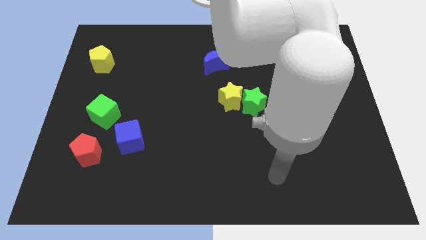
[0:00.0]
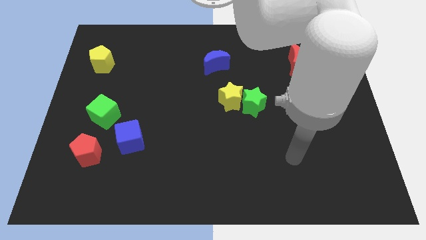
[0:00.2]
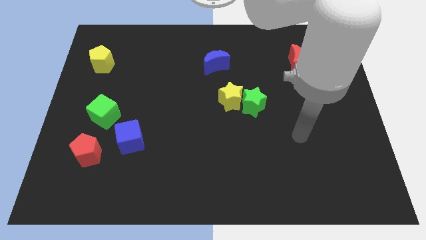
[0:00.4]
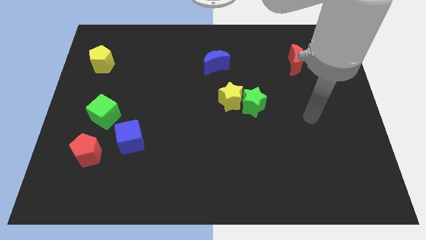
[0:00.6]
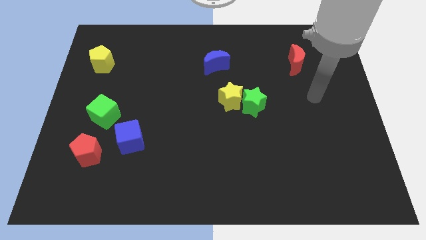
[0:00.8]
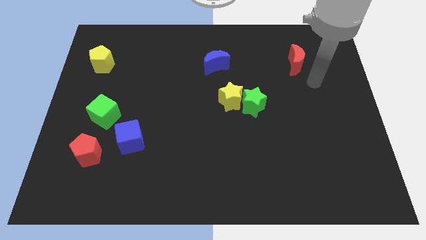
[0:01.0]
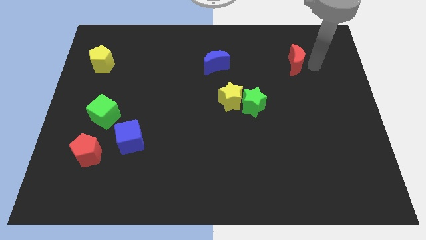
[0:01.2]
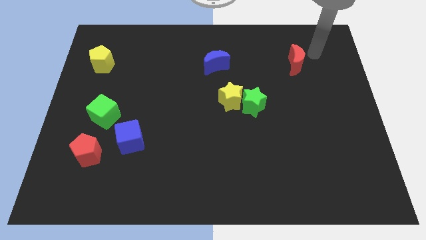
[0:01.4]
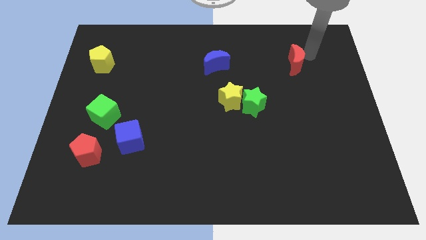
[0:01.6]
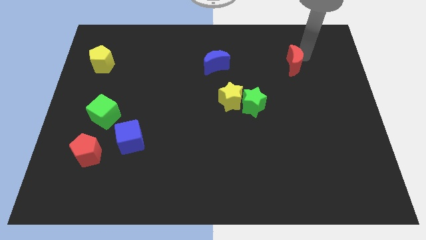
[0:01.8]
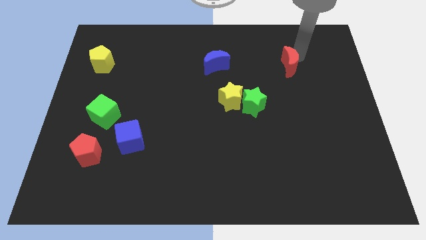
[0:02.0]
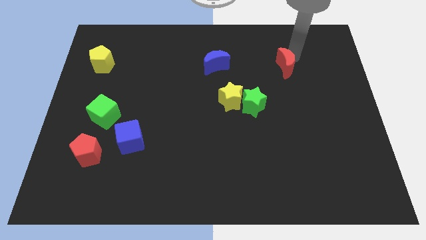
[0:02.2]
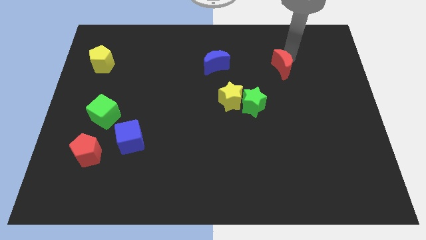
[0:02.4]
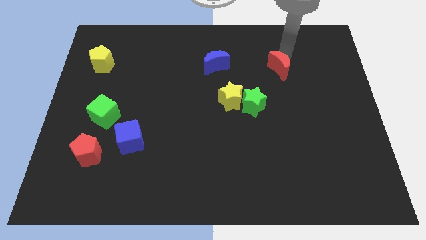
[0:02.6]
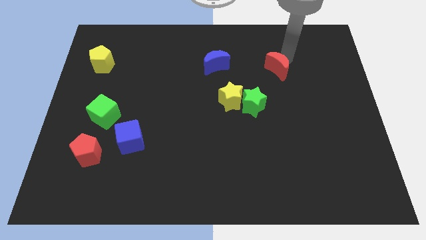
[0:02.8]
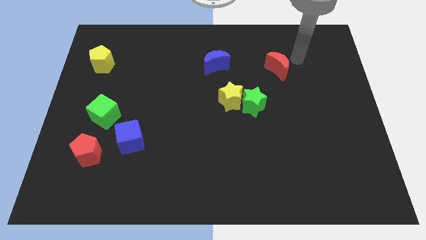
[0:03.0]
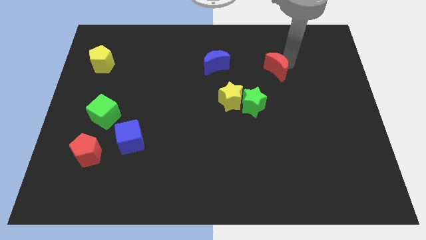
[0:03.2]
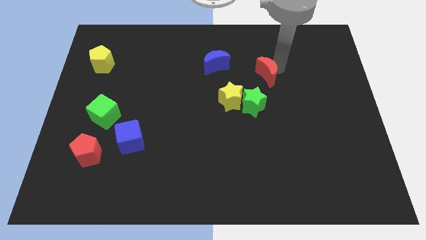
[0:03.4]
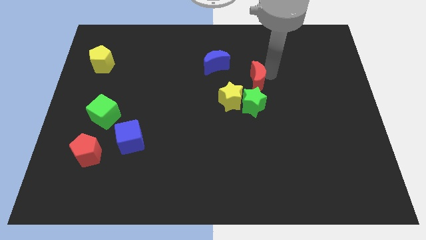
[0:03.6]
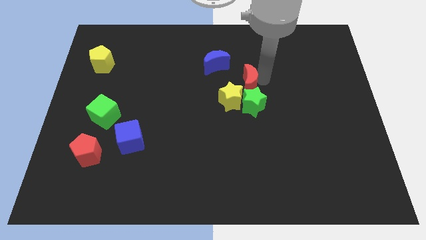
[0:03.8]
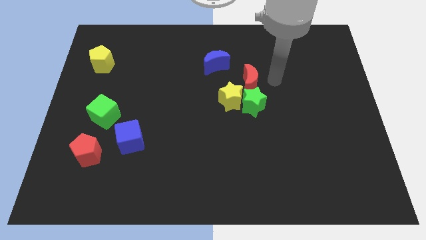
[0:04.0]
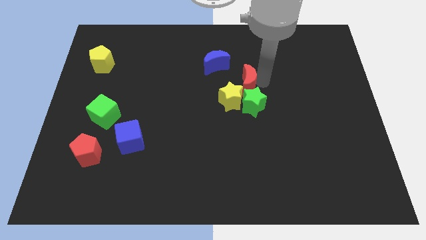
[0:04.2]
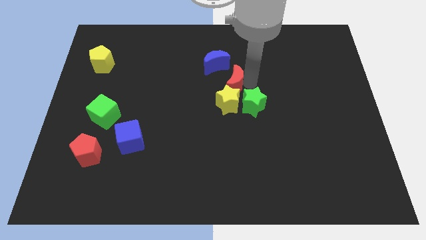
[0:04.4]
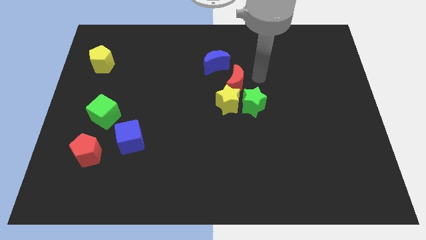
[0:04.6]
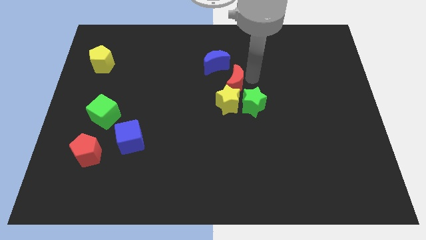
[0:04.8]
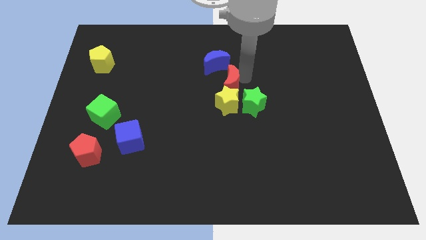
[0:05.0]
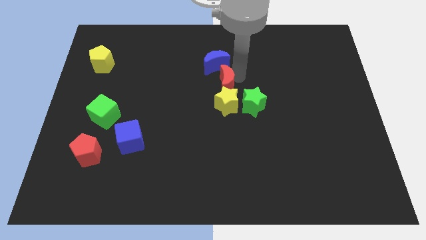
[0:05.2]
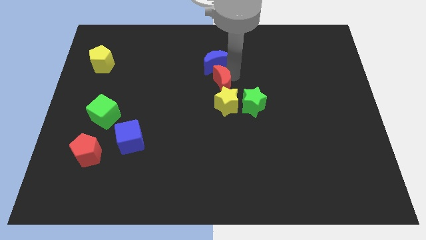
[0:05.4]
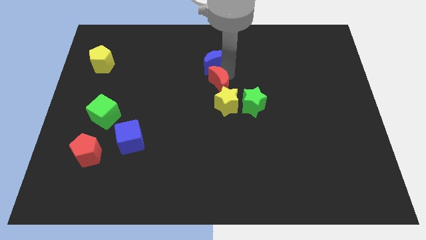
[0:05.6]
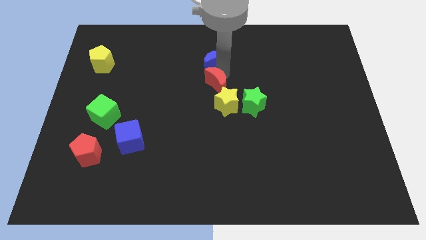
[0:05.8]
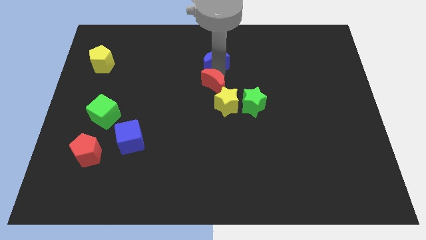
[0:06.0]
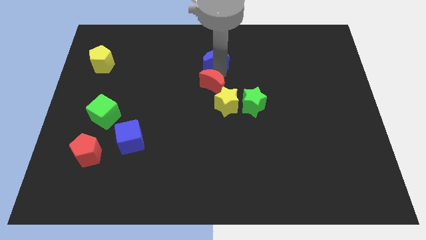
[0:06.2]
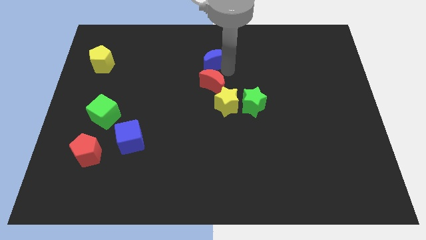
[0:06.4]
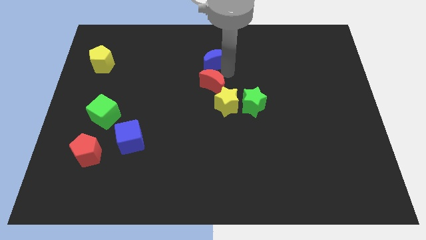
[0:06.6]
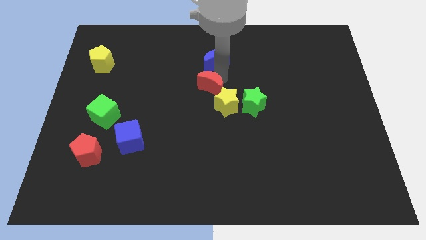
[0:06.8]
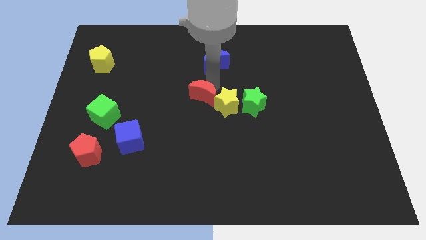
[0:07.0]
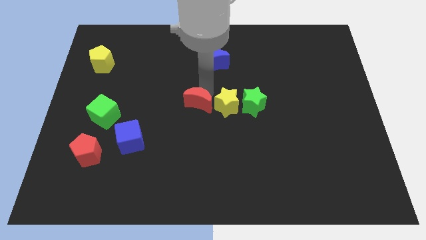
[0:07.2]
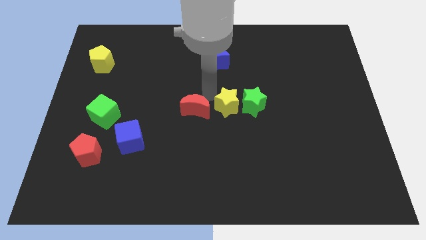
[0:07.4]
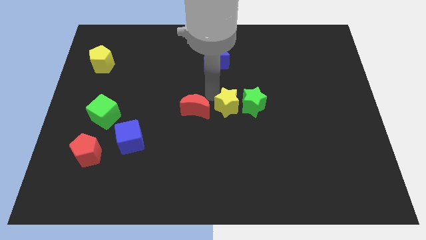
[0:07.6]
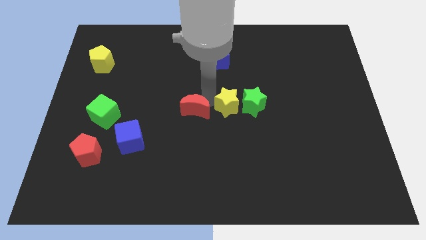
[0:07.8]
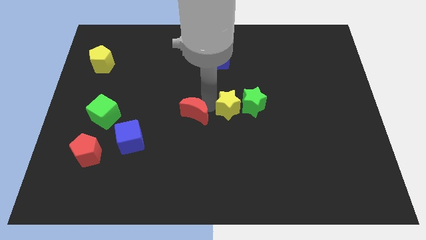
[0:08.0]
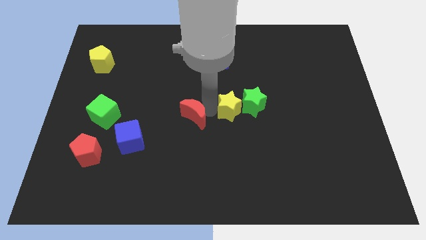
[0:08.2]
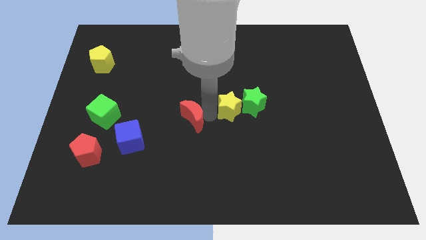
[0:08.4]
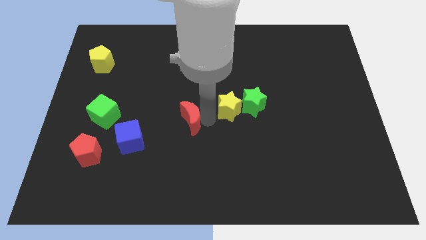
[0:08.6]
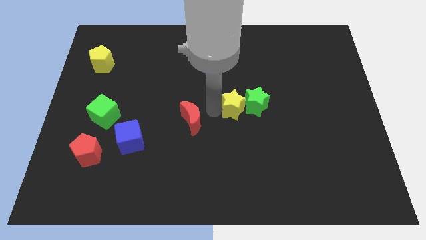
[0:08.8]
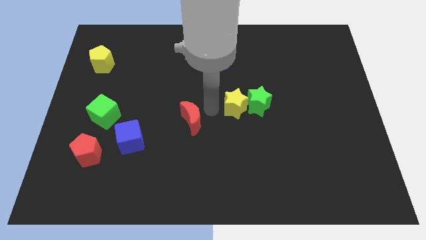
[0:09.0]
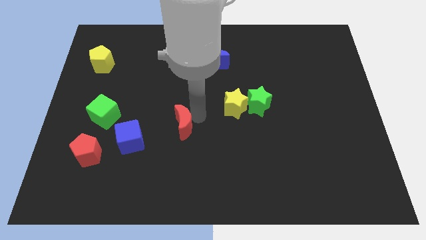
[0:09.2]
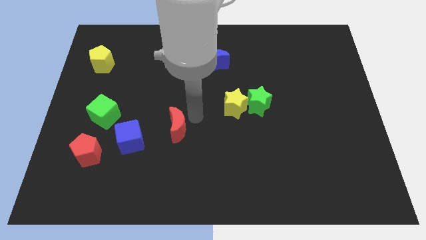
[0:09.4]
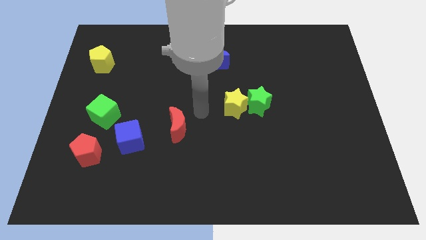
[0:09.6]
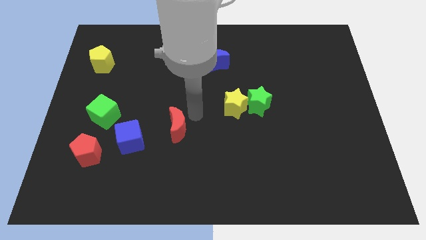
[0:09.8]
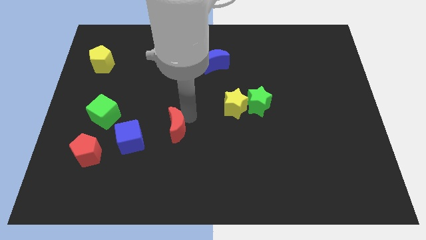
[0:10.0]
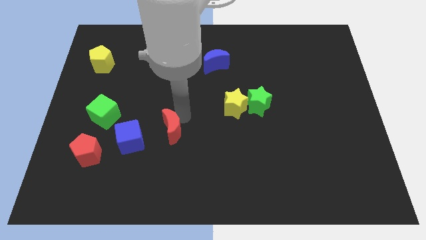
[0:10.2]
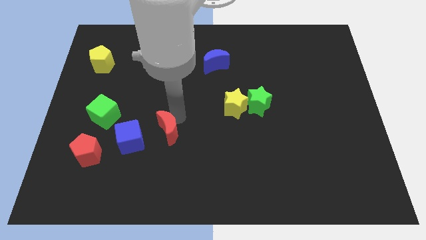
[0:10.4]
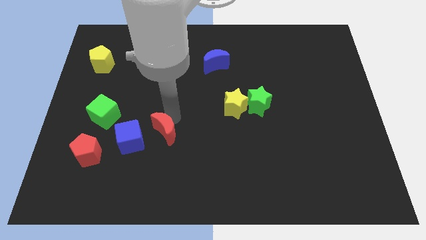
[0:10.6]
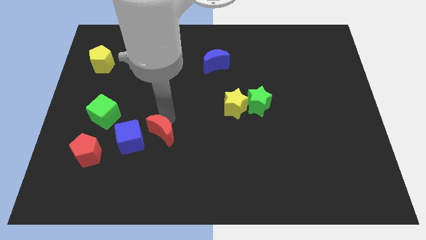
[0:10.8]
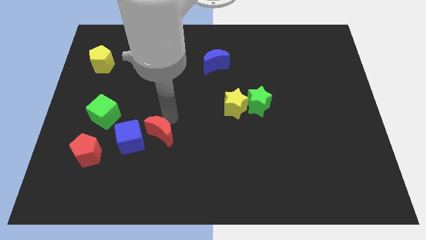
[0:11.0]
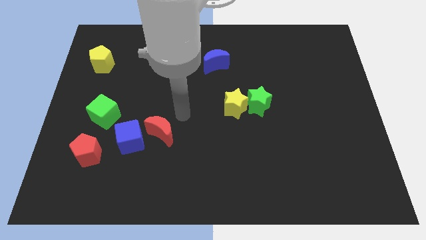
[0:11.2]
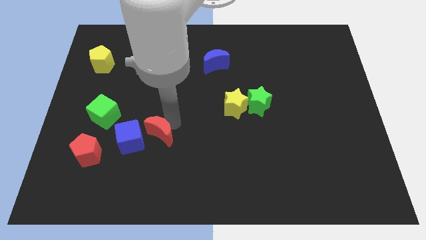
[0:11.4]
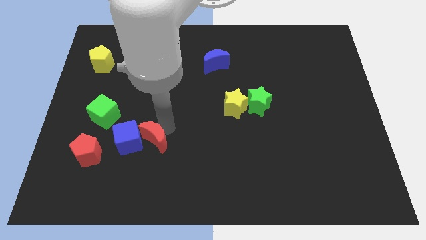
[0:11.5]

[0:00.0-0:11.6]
push the red moon to the right side of the red pentagon

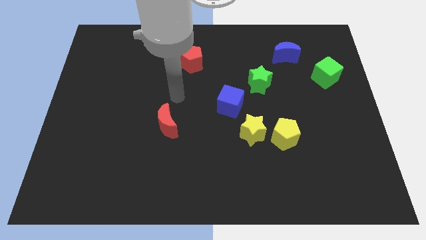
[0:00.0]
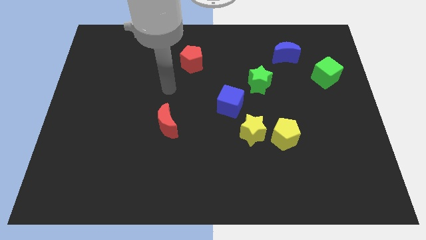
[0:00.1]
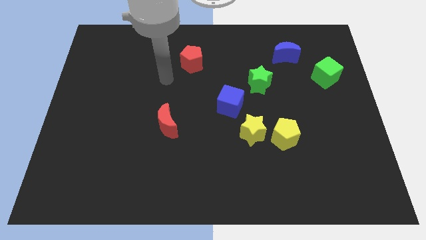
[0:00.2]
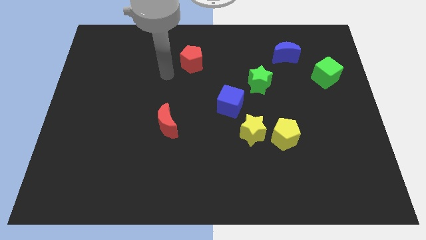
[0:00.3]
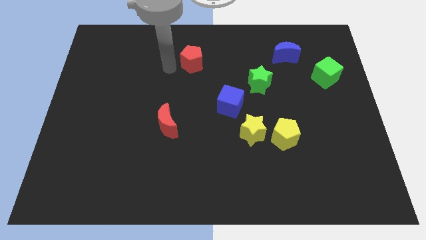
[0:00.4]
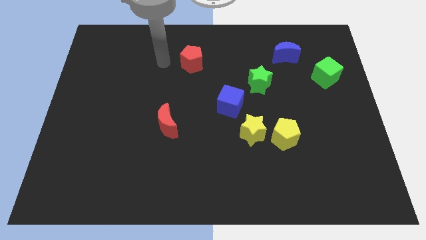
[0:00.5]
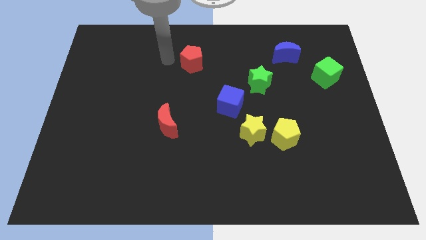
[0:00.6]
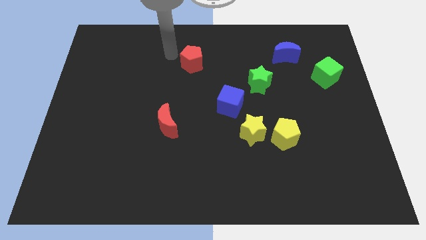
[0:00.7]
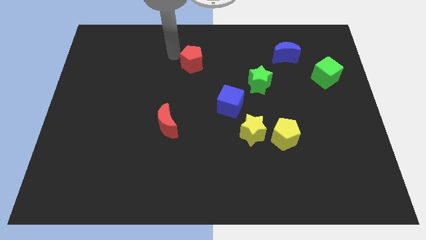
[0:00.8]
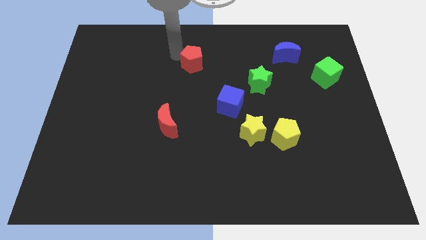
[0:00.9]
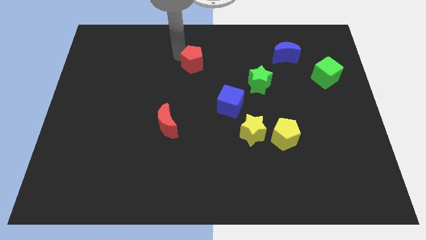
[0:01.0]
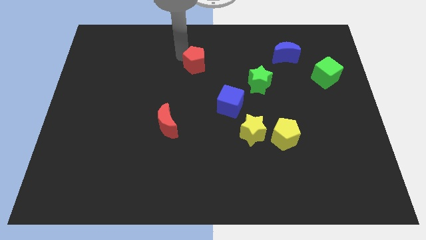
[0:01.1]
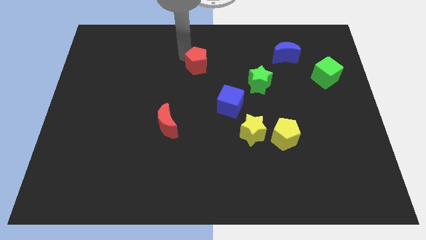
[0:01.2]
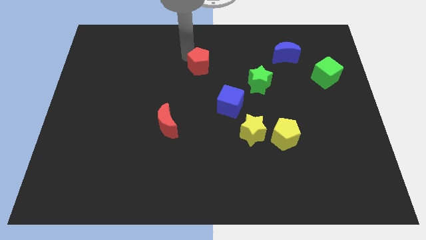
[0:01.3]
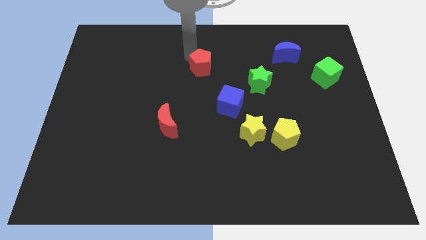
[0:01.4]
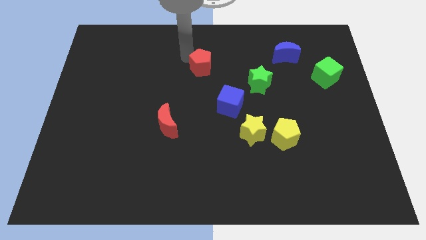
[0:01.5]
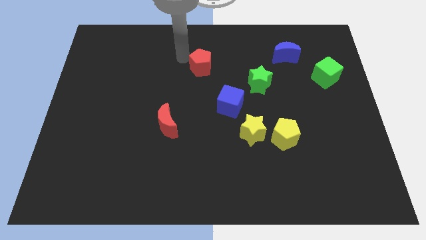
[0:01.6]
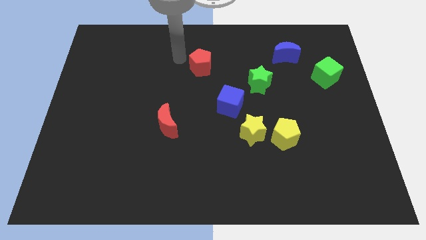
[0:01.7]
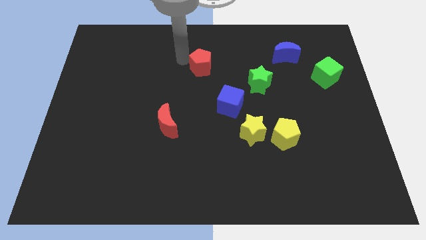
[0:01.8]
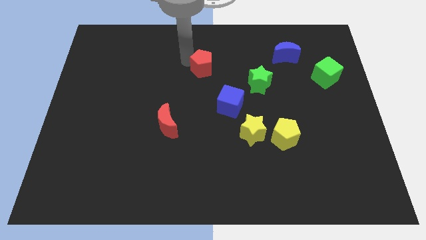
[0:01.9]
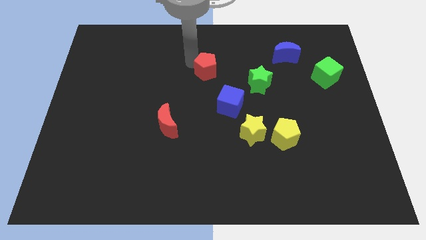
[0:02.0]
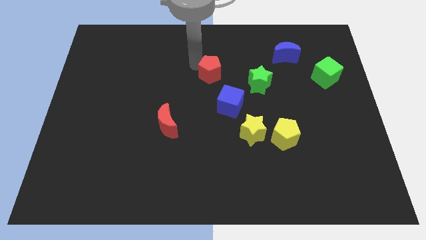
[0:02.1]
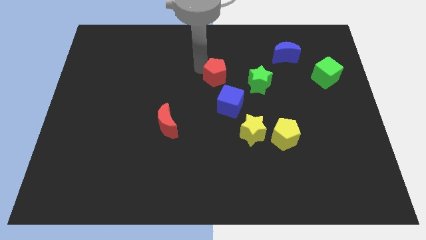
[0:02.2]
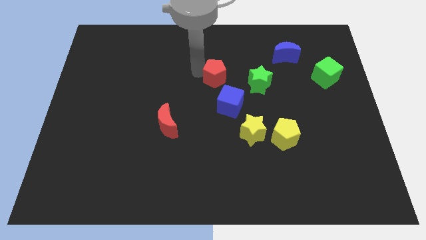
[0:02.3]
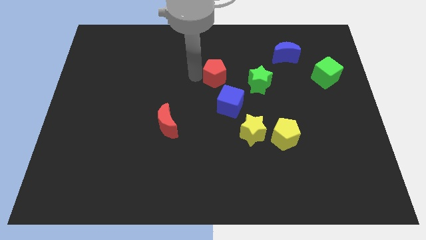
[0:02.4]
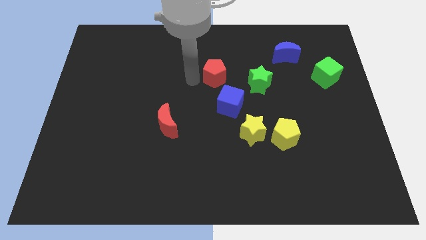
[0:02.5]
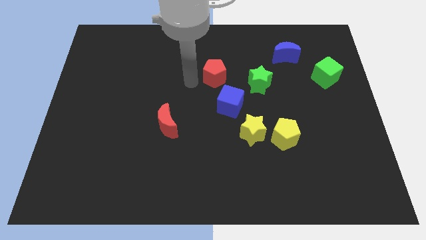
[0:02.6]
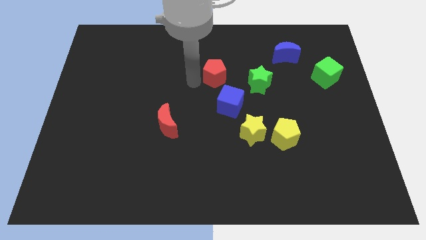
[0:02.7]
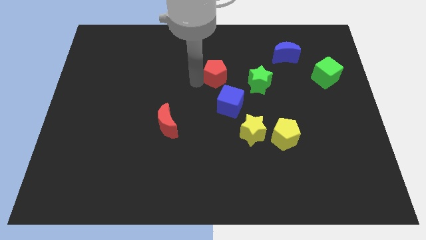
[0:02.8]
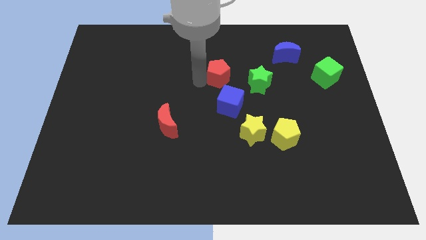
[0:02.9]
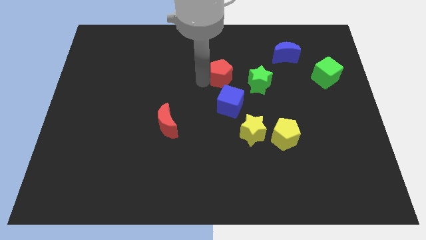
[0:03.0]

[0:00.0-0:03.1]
slide the red pentagon to the top left side of the green star
